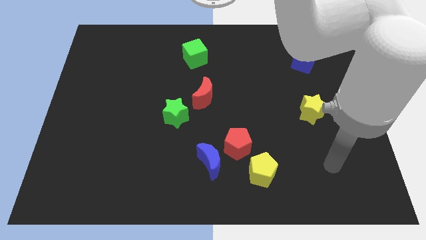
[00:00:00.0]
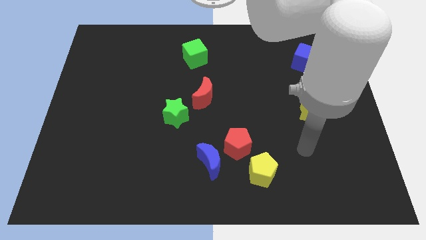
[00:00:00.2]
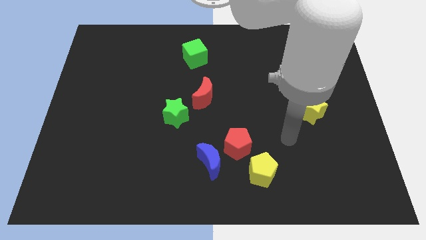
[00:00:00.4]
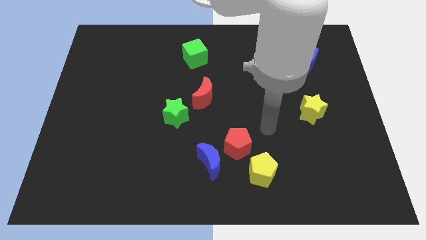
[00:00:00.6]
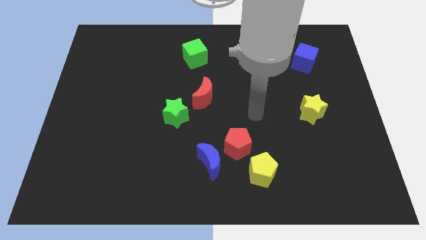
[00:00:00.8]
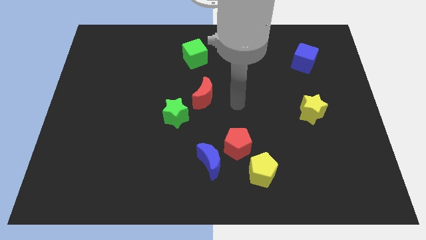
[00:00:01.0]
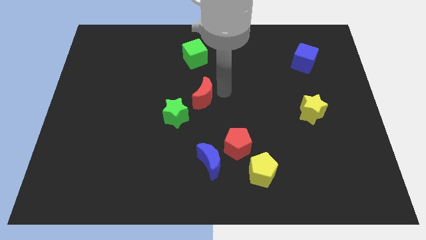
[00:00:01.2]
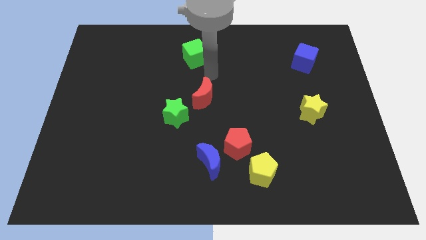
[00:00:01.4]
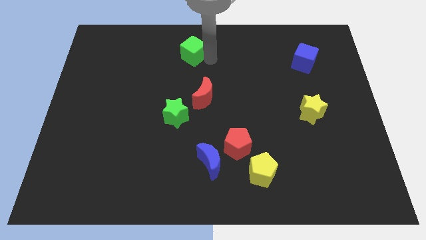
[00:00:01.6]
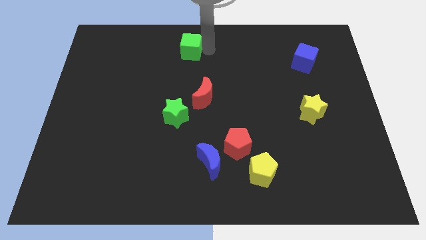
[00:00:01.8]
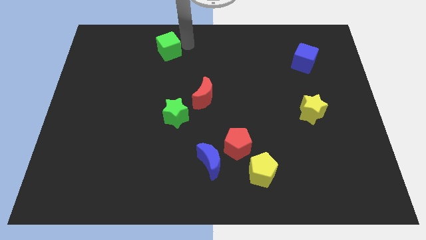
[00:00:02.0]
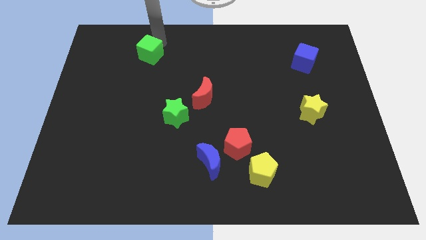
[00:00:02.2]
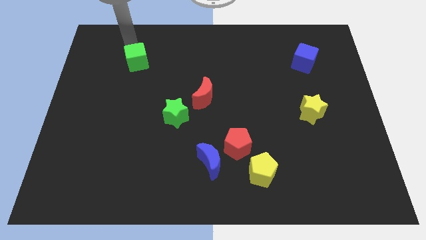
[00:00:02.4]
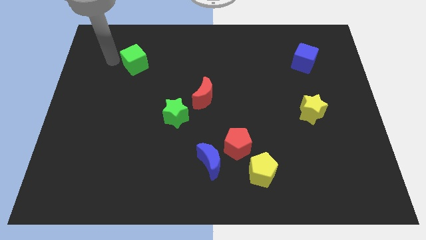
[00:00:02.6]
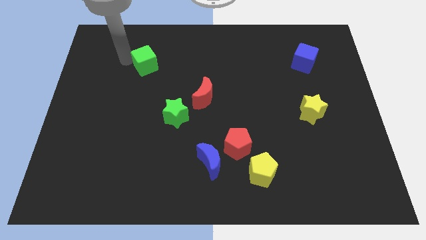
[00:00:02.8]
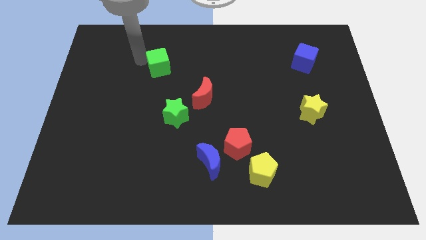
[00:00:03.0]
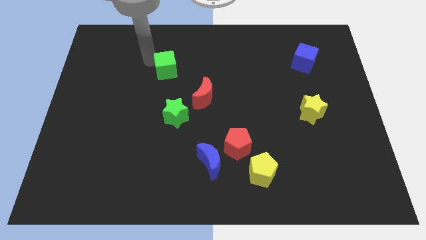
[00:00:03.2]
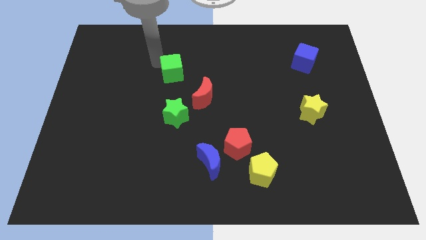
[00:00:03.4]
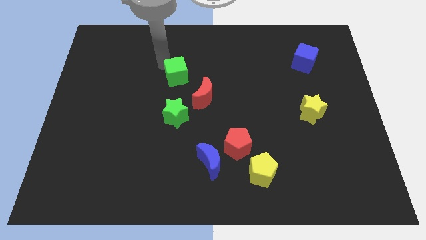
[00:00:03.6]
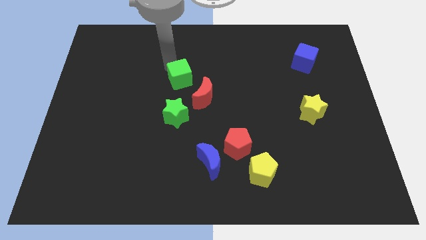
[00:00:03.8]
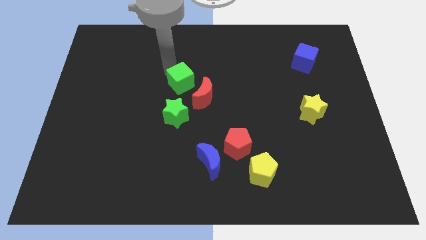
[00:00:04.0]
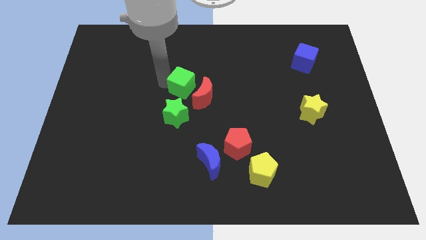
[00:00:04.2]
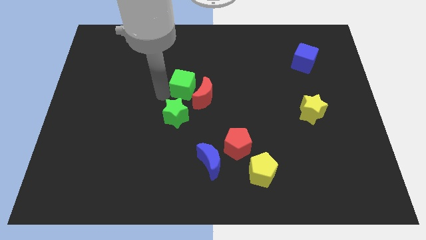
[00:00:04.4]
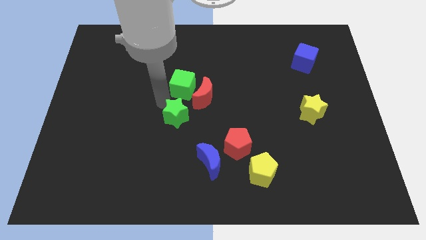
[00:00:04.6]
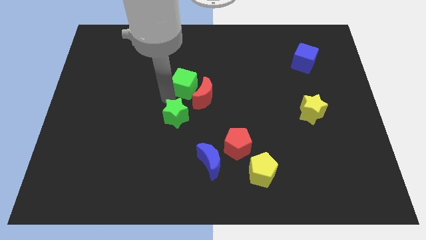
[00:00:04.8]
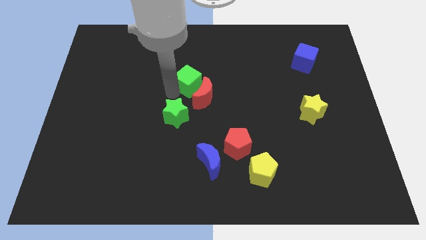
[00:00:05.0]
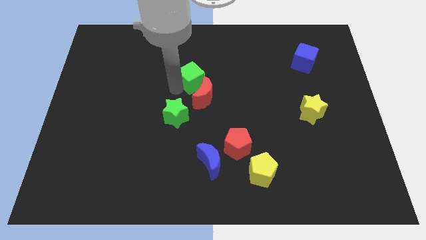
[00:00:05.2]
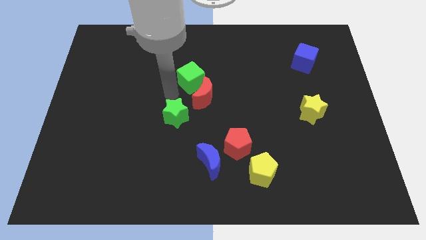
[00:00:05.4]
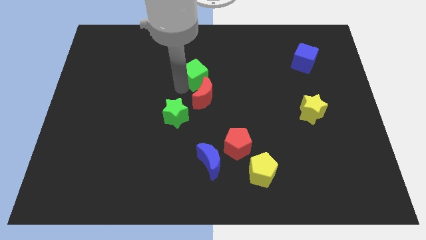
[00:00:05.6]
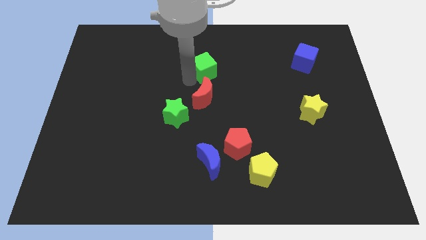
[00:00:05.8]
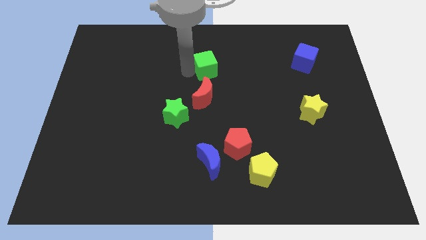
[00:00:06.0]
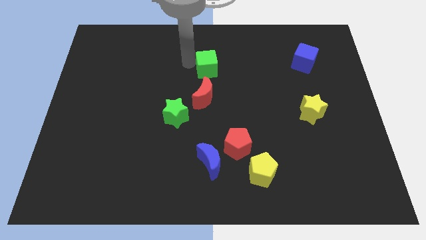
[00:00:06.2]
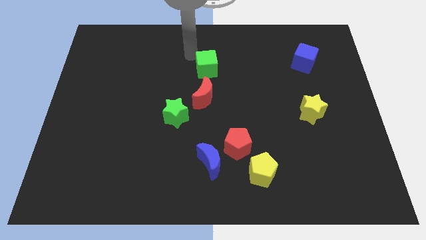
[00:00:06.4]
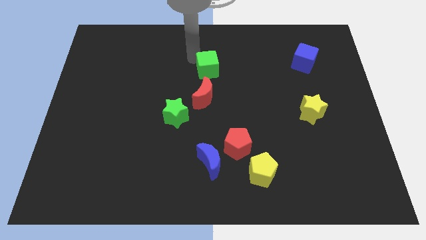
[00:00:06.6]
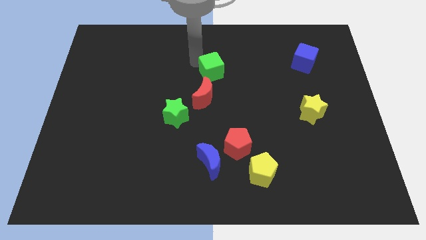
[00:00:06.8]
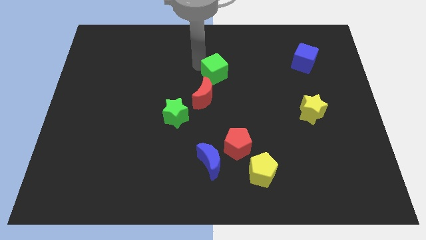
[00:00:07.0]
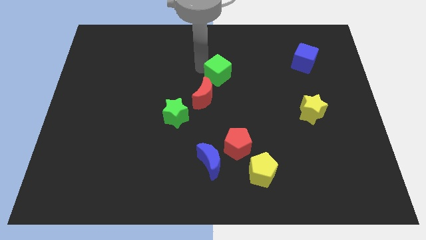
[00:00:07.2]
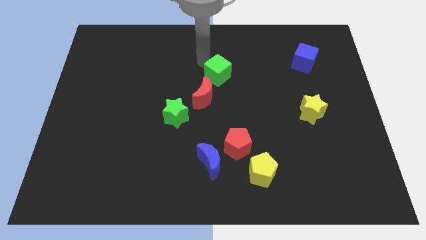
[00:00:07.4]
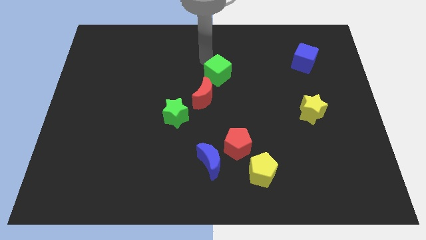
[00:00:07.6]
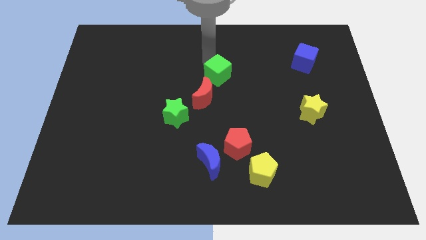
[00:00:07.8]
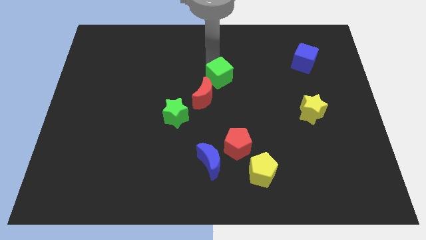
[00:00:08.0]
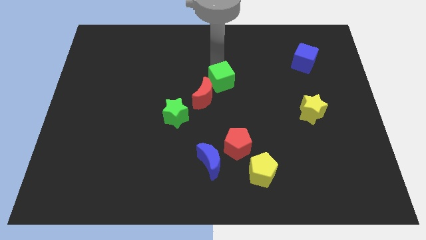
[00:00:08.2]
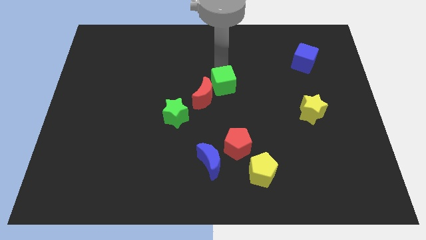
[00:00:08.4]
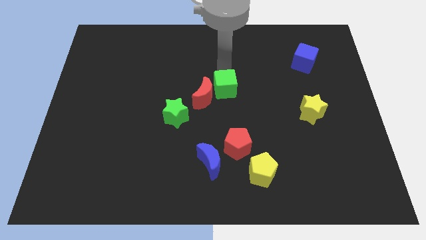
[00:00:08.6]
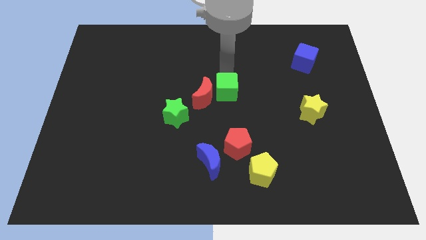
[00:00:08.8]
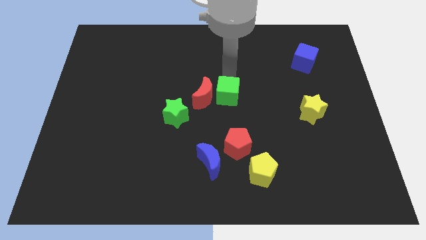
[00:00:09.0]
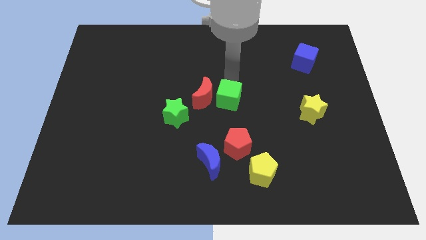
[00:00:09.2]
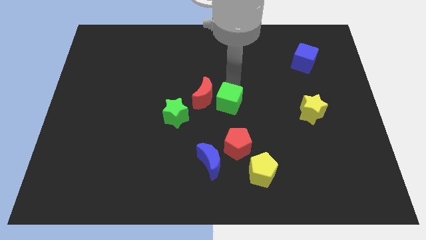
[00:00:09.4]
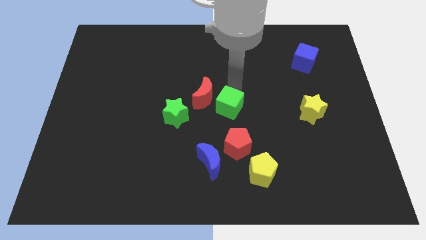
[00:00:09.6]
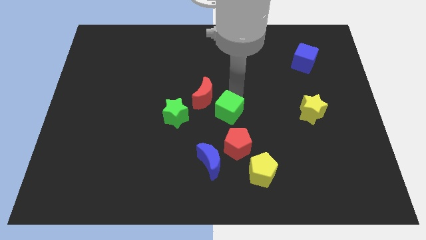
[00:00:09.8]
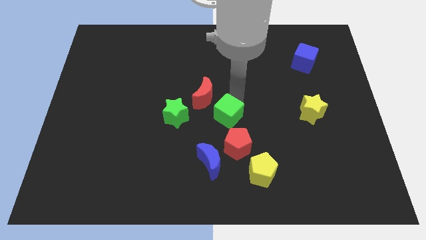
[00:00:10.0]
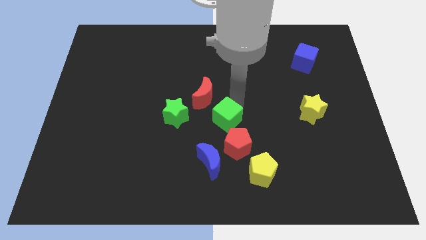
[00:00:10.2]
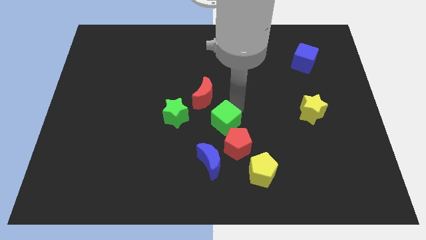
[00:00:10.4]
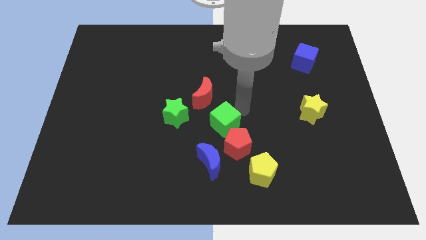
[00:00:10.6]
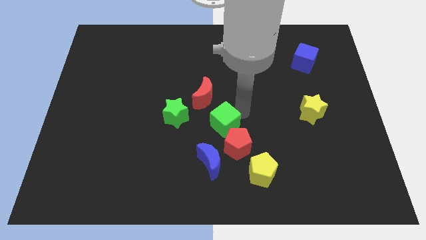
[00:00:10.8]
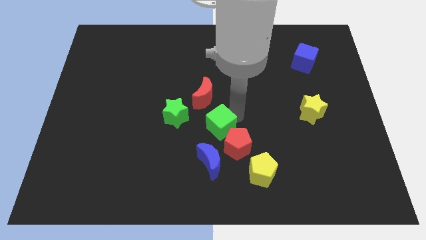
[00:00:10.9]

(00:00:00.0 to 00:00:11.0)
slide the green cube downwards

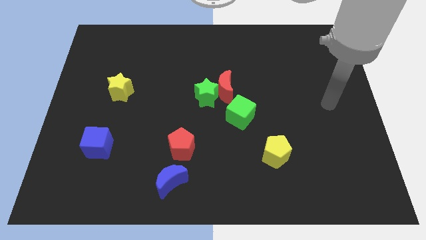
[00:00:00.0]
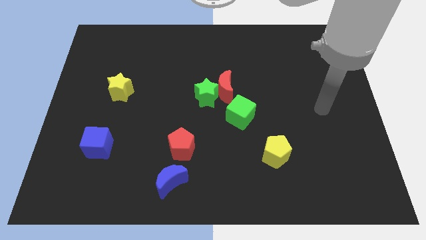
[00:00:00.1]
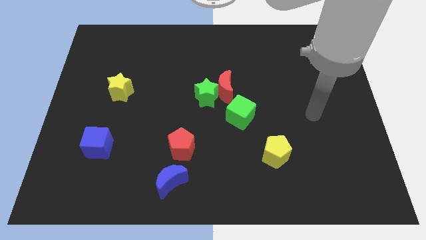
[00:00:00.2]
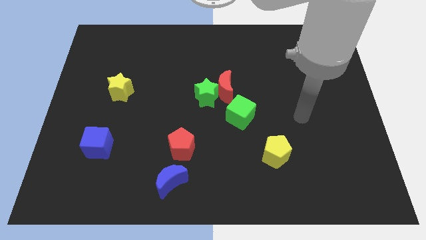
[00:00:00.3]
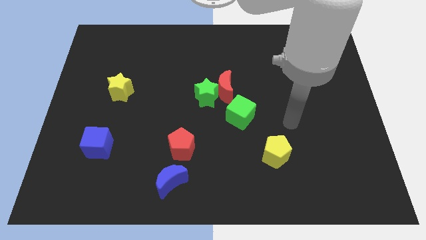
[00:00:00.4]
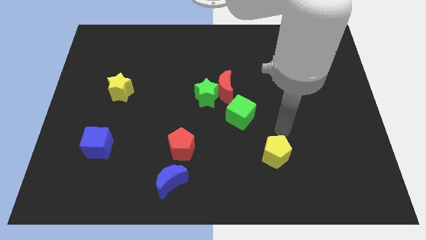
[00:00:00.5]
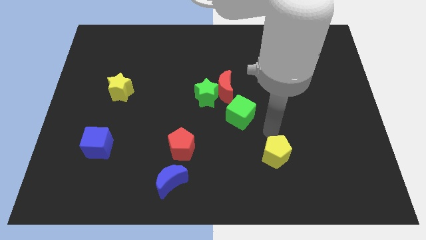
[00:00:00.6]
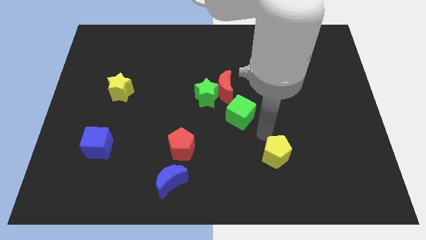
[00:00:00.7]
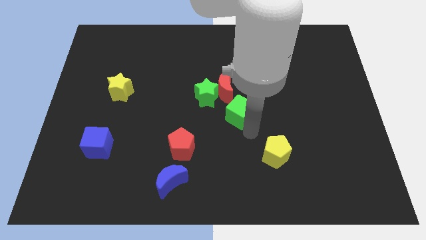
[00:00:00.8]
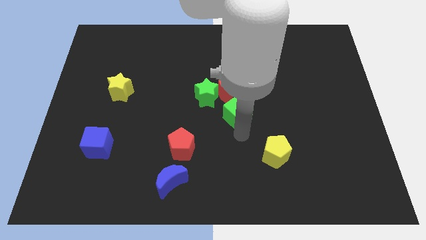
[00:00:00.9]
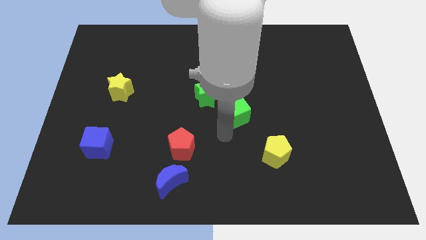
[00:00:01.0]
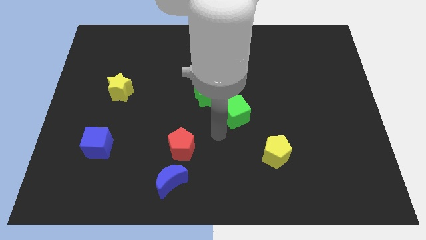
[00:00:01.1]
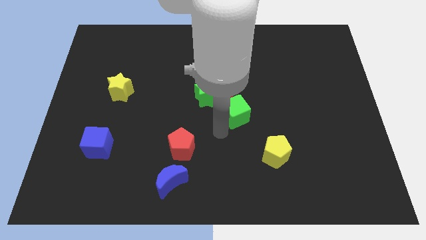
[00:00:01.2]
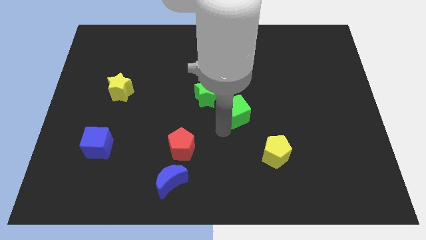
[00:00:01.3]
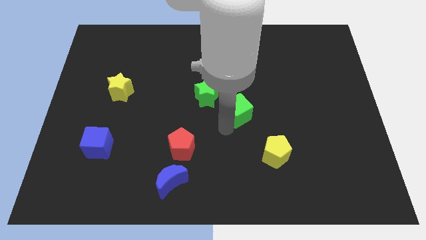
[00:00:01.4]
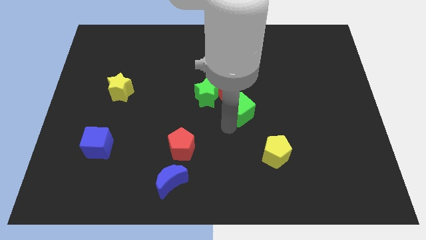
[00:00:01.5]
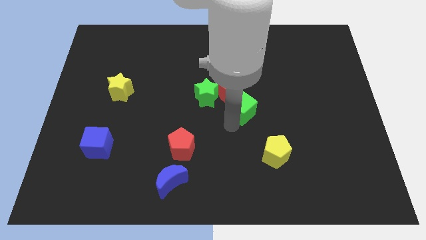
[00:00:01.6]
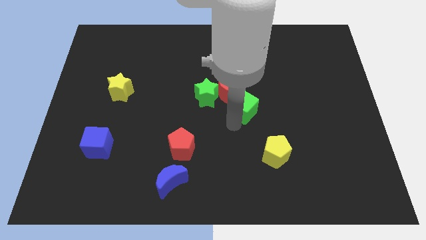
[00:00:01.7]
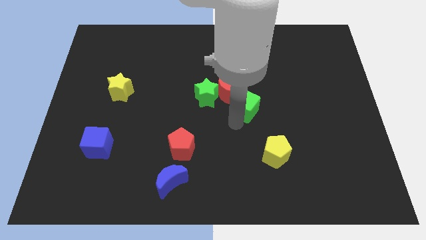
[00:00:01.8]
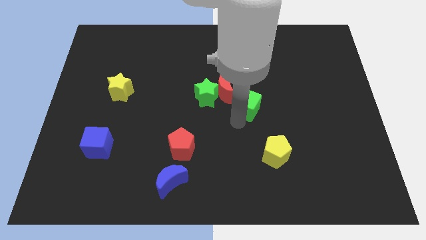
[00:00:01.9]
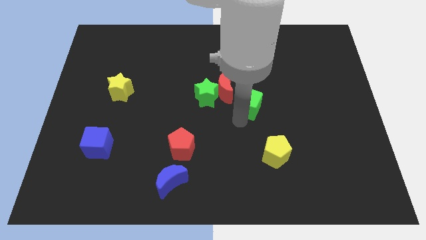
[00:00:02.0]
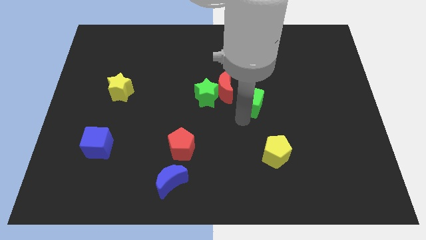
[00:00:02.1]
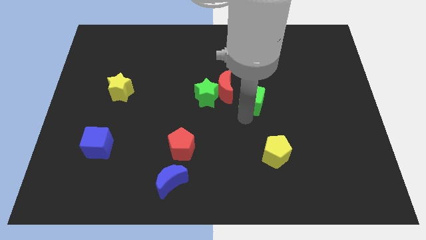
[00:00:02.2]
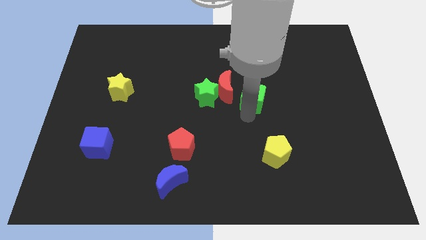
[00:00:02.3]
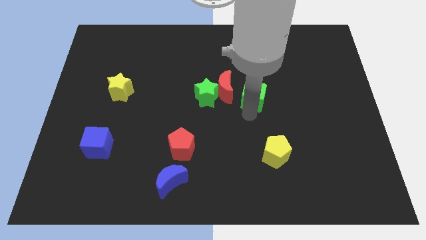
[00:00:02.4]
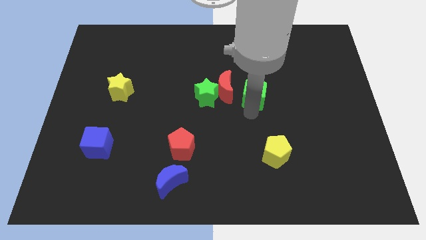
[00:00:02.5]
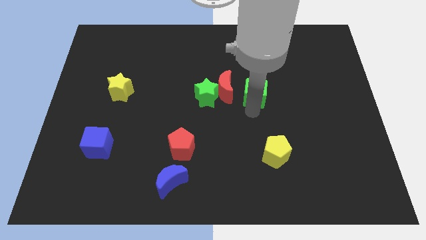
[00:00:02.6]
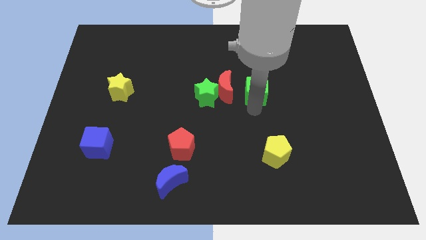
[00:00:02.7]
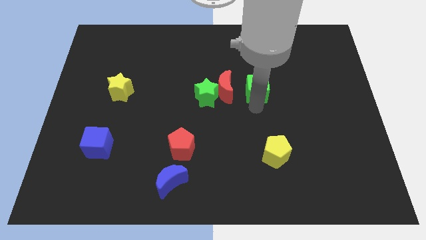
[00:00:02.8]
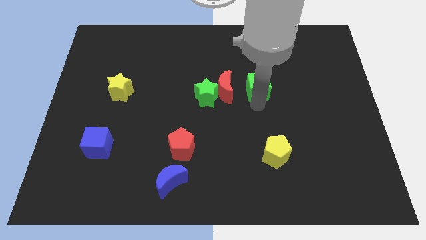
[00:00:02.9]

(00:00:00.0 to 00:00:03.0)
slightly slide the green cube upwards
